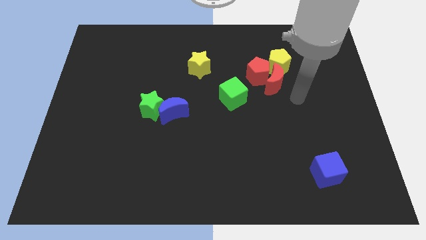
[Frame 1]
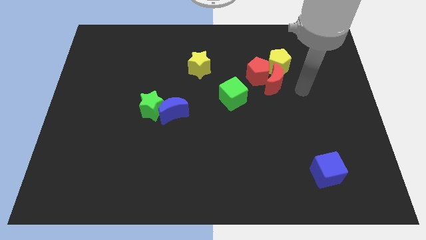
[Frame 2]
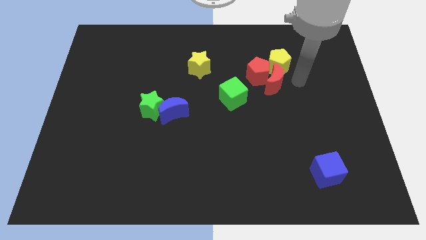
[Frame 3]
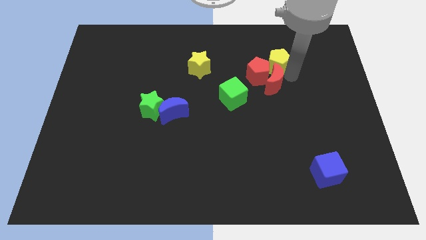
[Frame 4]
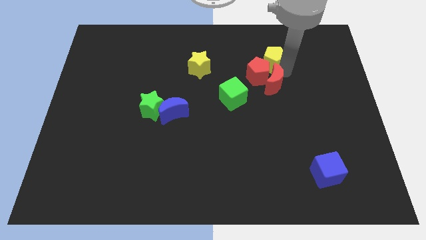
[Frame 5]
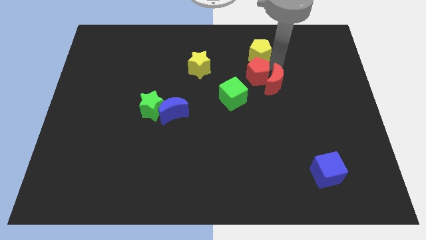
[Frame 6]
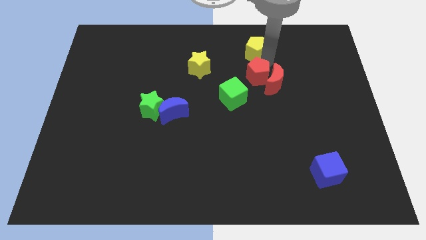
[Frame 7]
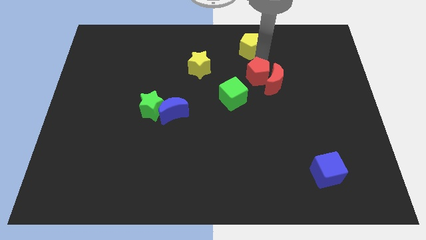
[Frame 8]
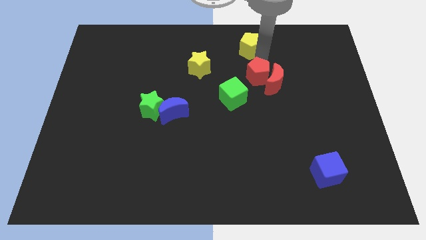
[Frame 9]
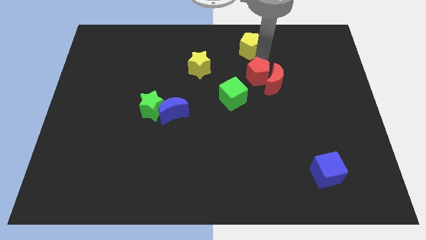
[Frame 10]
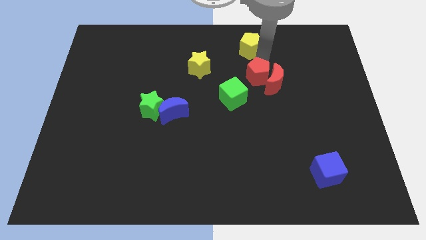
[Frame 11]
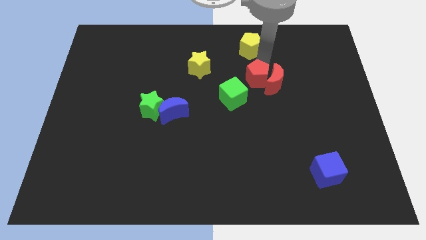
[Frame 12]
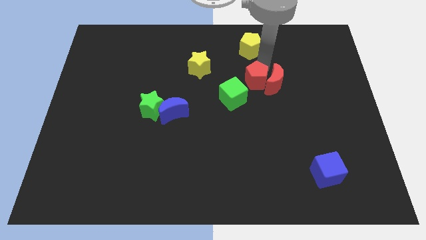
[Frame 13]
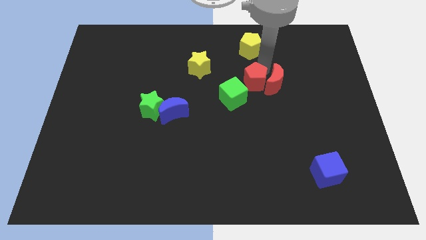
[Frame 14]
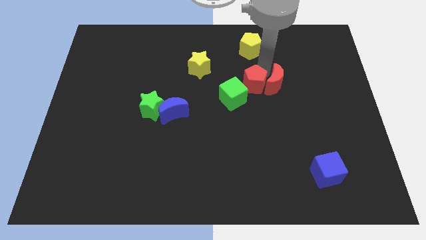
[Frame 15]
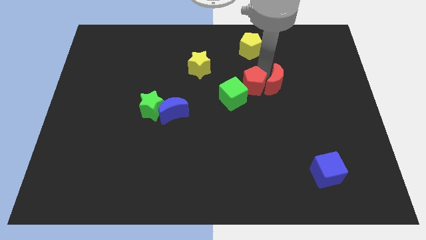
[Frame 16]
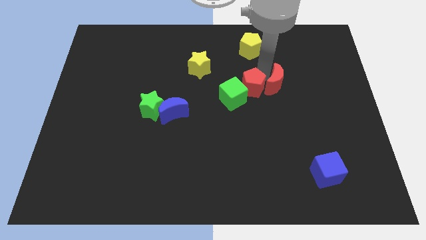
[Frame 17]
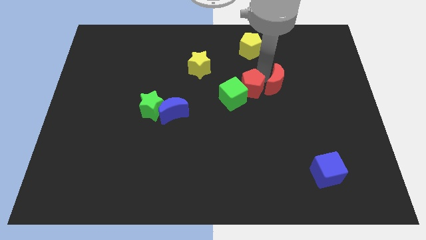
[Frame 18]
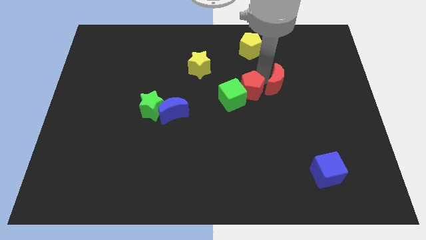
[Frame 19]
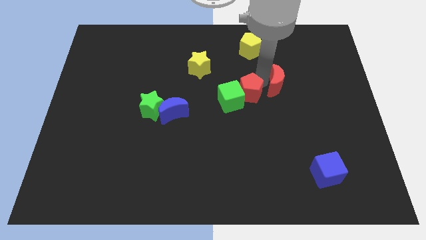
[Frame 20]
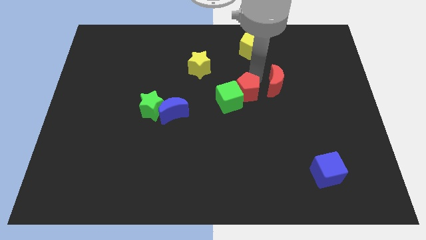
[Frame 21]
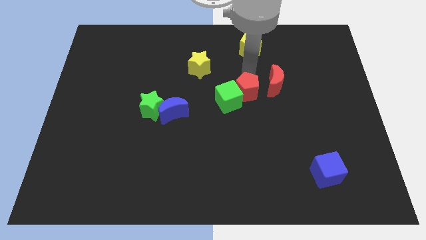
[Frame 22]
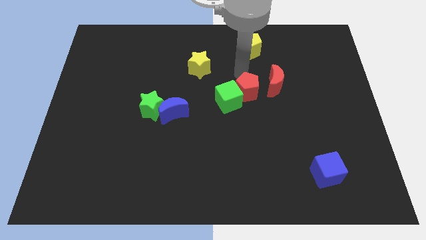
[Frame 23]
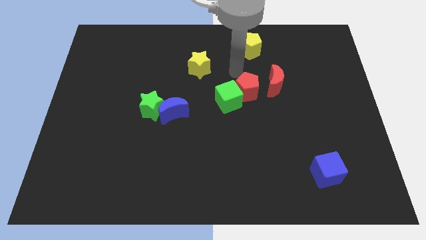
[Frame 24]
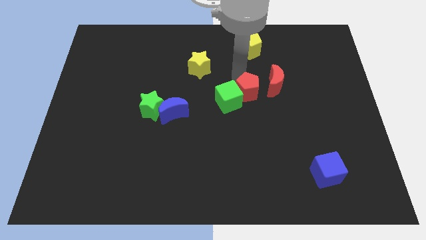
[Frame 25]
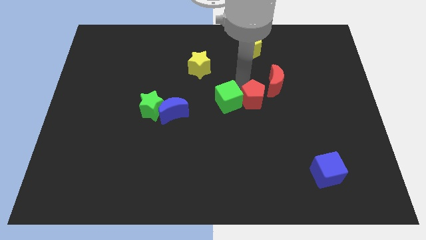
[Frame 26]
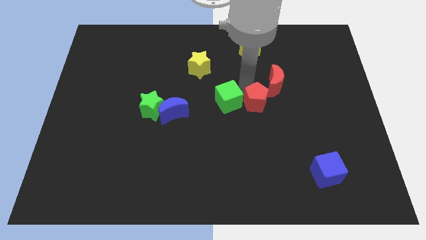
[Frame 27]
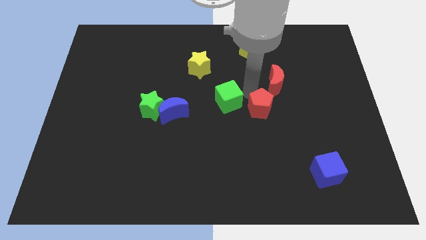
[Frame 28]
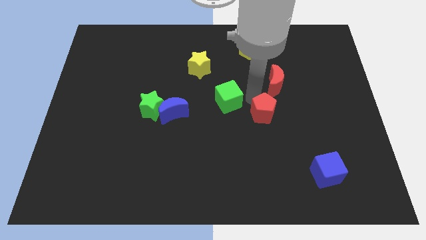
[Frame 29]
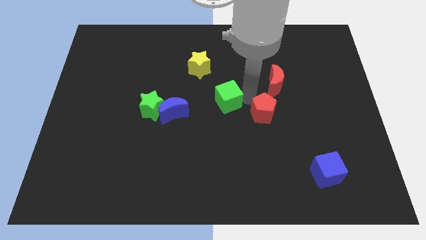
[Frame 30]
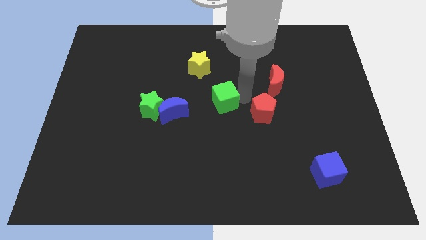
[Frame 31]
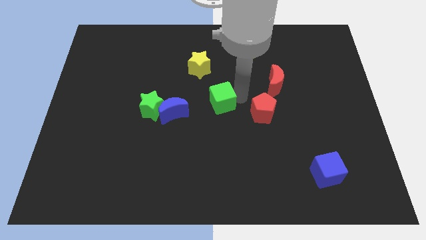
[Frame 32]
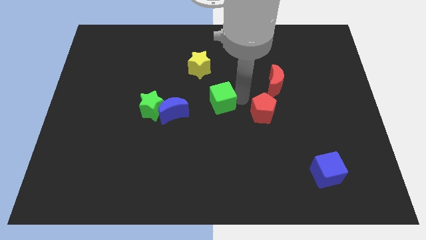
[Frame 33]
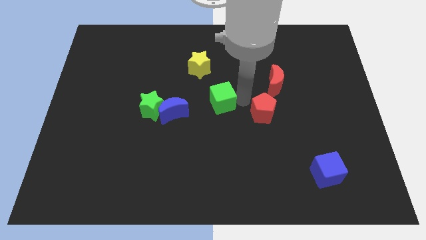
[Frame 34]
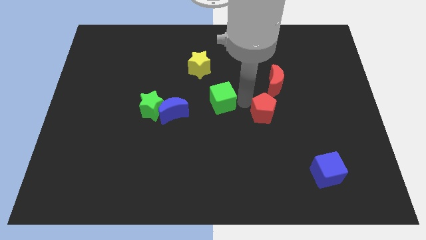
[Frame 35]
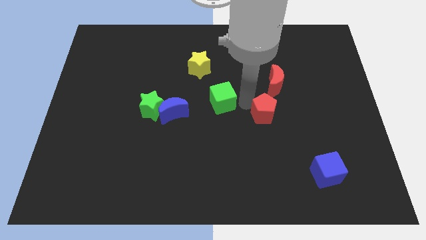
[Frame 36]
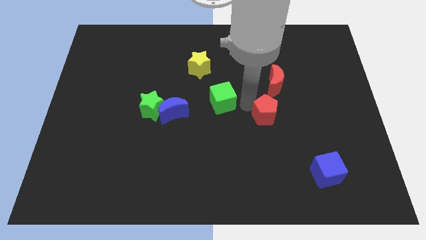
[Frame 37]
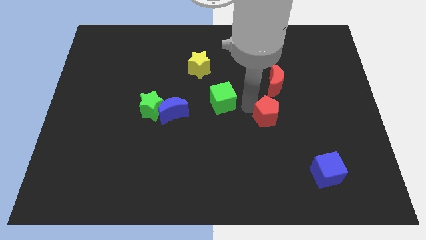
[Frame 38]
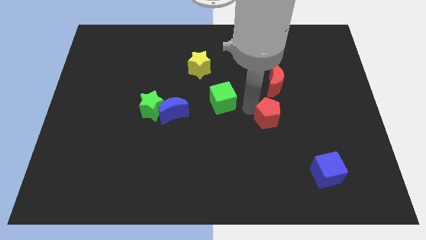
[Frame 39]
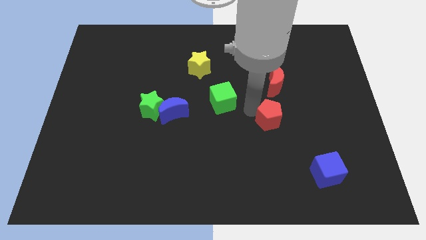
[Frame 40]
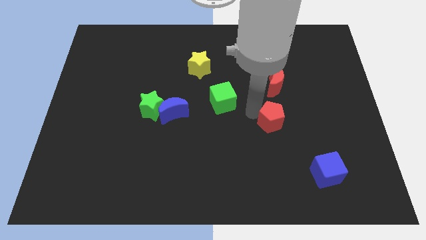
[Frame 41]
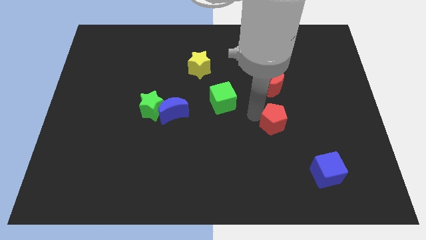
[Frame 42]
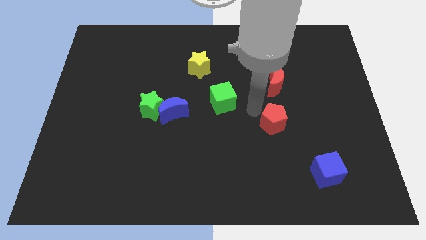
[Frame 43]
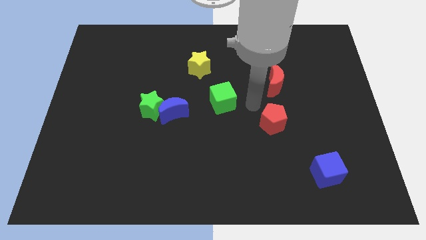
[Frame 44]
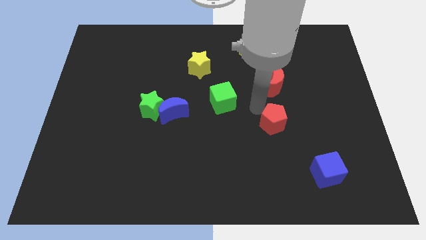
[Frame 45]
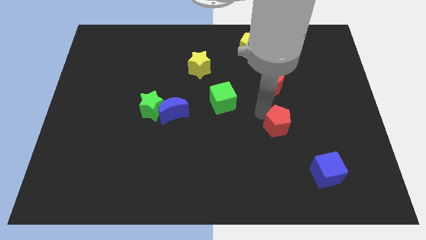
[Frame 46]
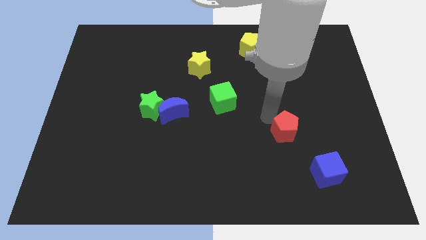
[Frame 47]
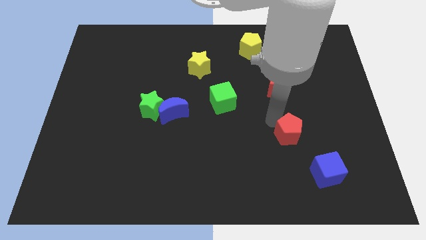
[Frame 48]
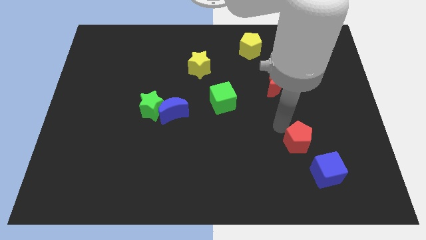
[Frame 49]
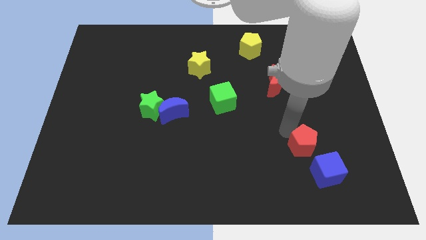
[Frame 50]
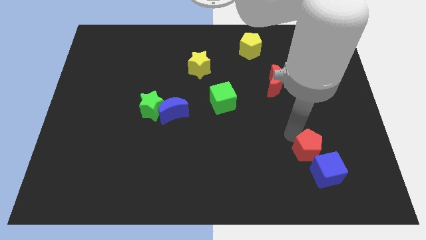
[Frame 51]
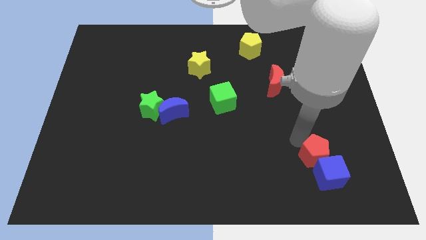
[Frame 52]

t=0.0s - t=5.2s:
put the red pentagon towards the blue cube

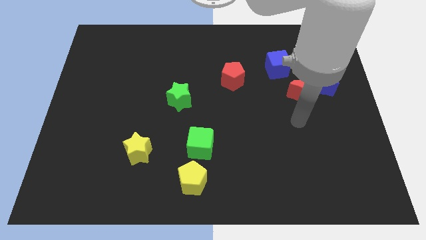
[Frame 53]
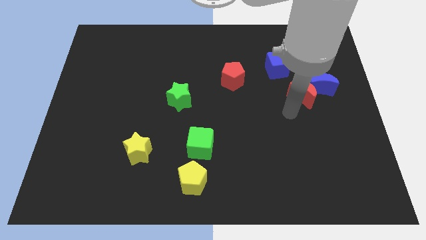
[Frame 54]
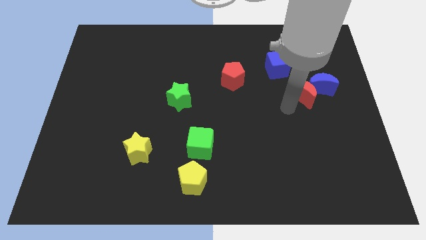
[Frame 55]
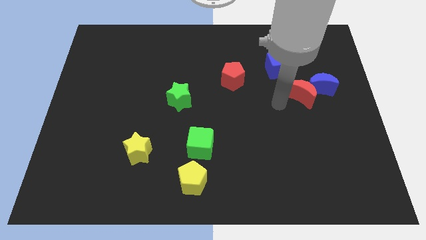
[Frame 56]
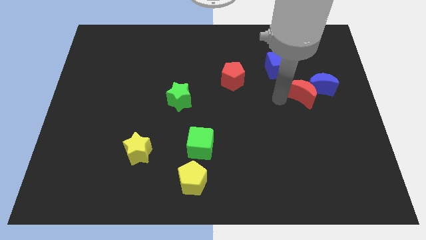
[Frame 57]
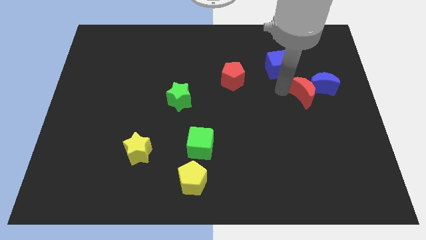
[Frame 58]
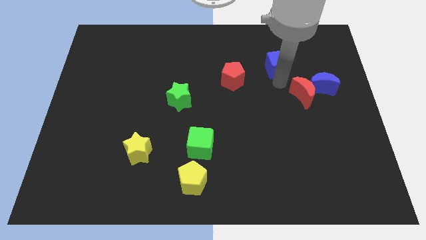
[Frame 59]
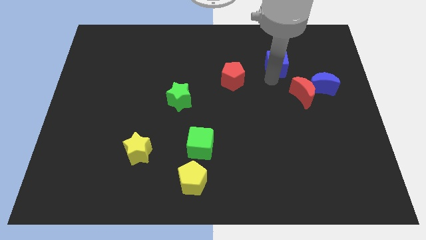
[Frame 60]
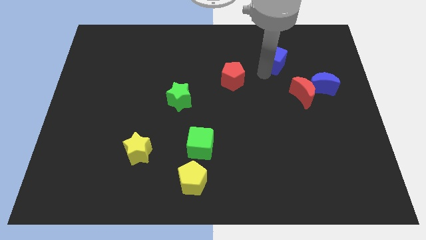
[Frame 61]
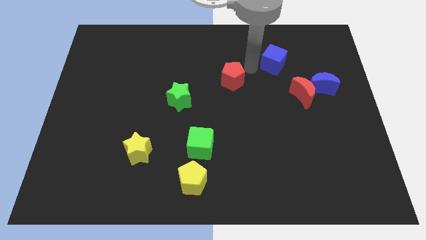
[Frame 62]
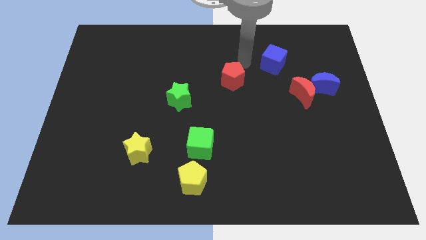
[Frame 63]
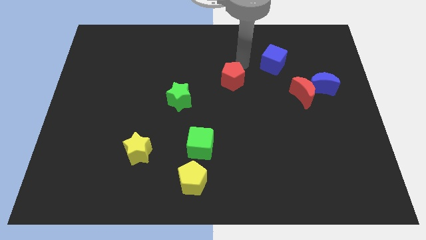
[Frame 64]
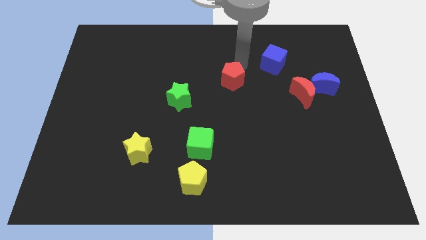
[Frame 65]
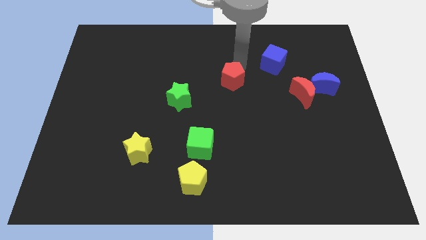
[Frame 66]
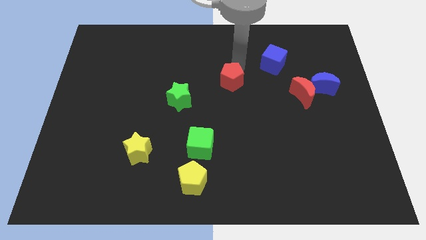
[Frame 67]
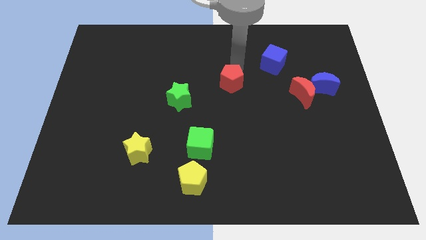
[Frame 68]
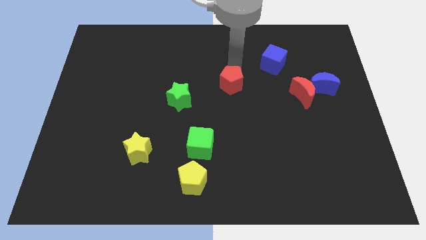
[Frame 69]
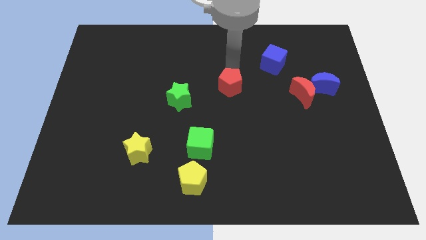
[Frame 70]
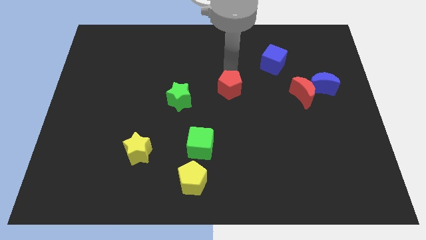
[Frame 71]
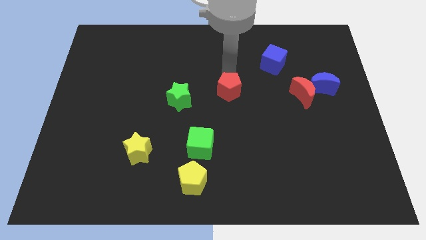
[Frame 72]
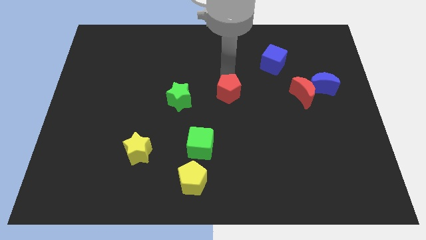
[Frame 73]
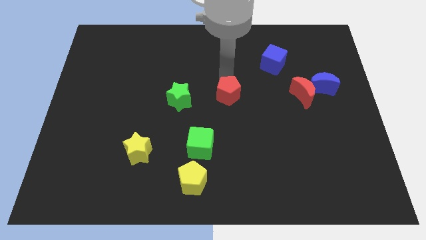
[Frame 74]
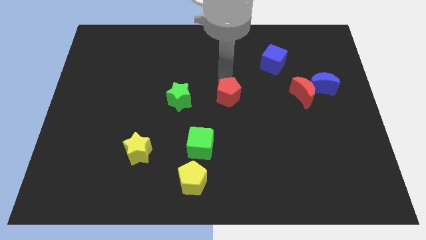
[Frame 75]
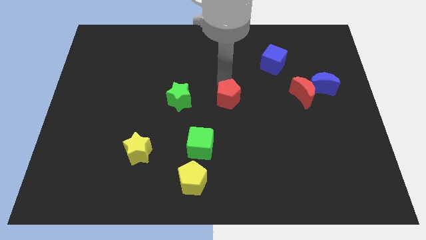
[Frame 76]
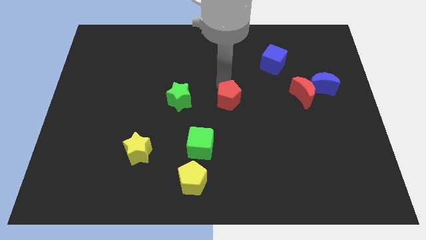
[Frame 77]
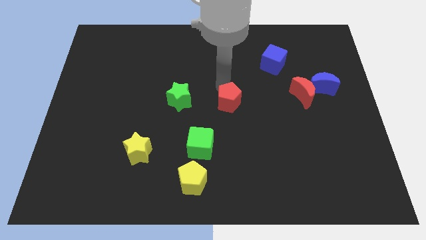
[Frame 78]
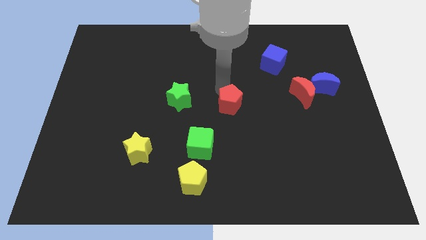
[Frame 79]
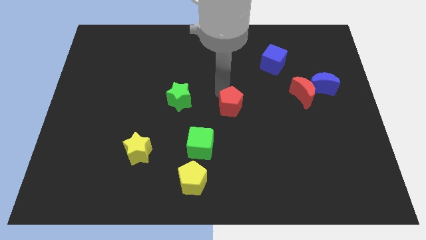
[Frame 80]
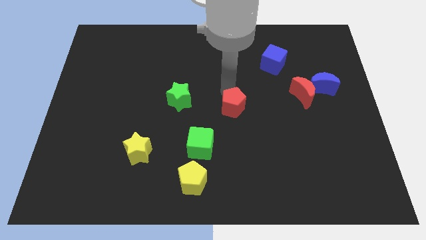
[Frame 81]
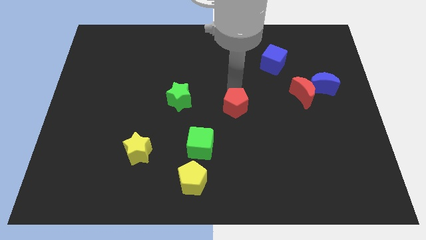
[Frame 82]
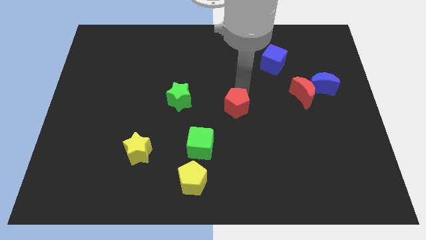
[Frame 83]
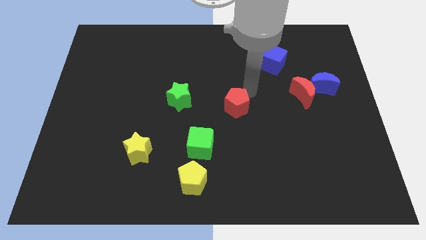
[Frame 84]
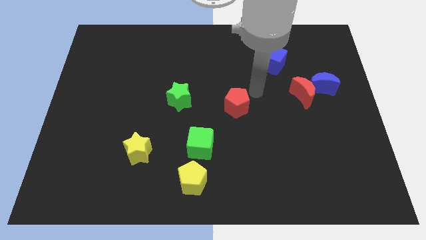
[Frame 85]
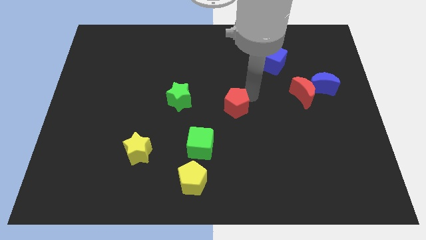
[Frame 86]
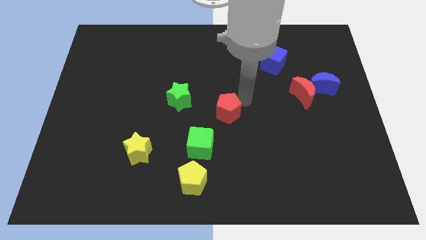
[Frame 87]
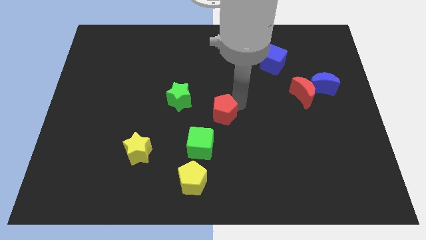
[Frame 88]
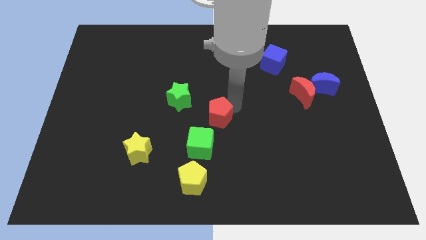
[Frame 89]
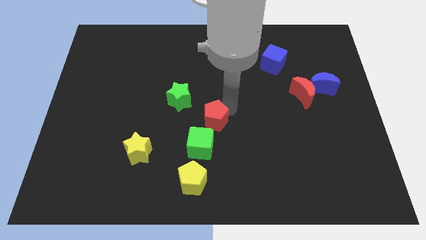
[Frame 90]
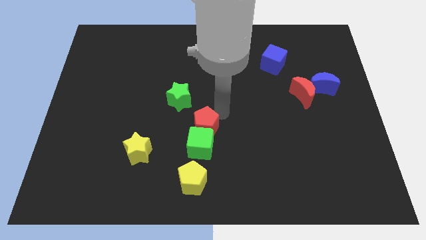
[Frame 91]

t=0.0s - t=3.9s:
put the red pentagon next to the green cube
